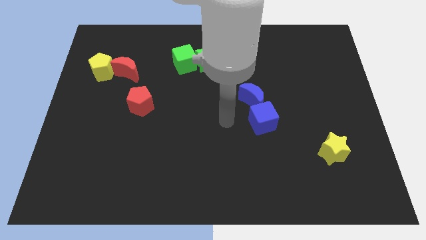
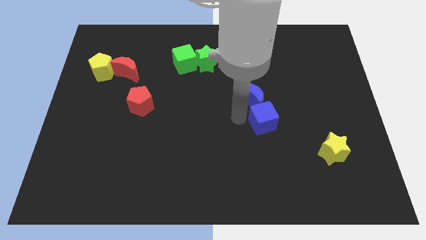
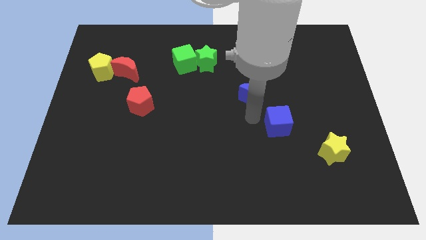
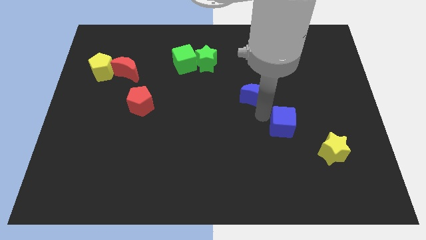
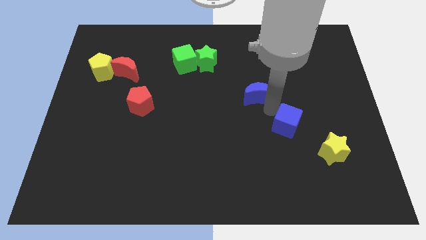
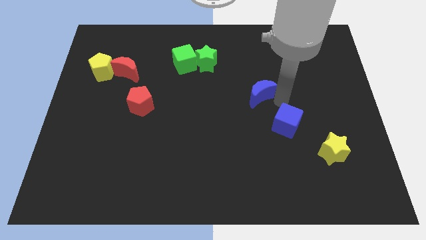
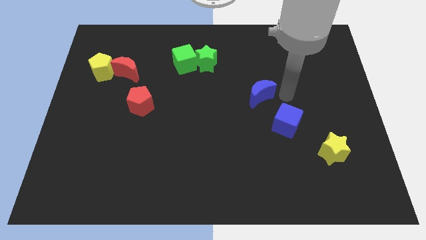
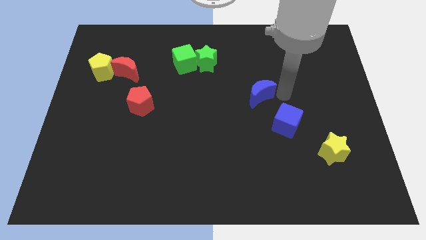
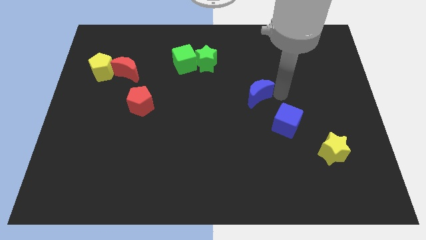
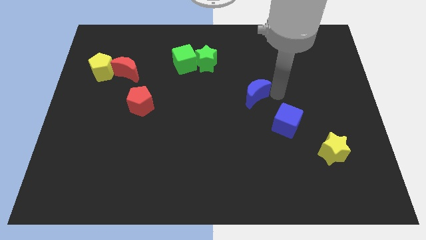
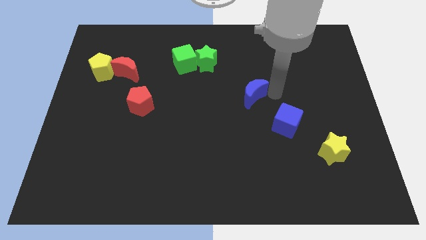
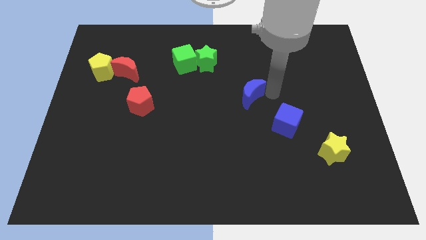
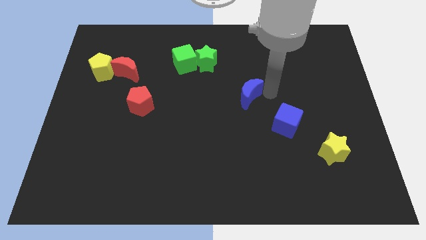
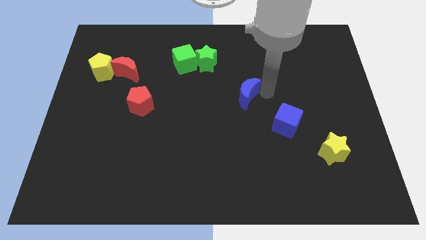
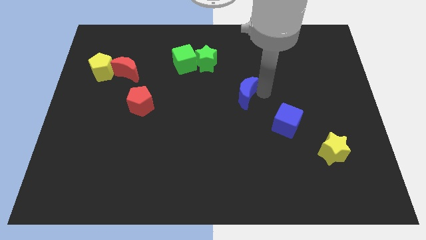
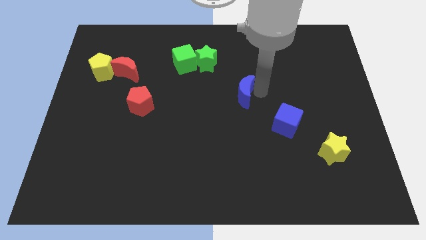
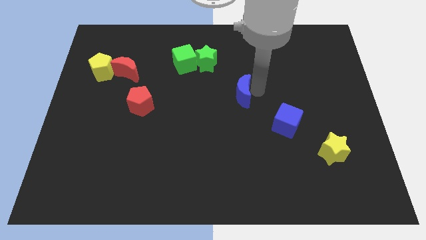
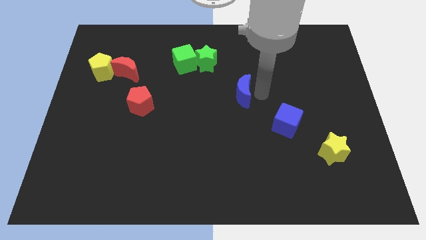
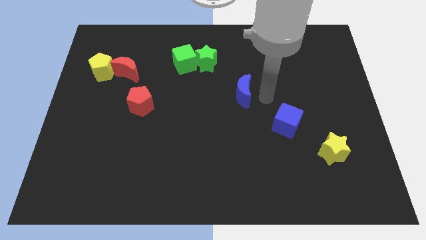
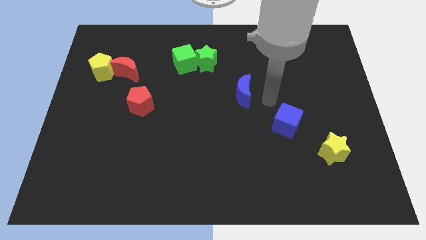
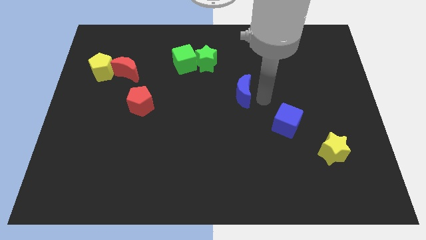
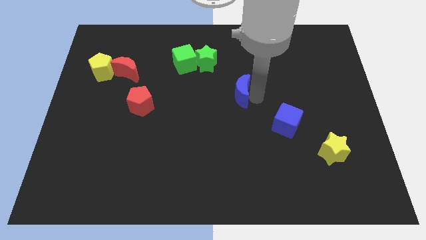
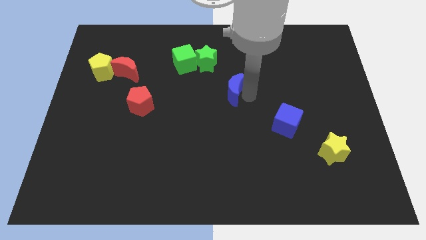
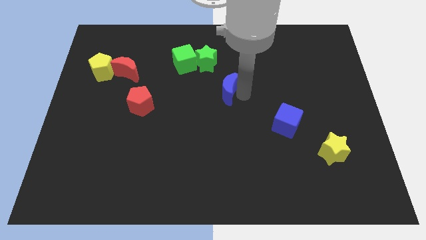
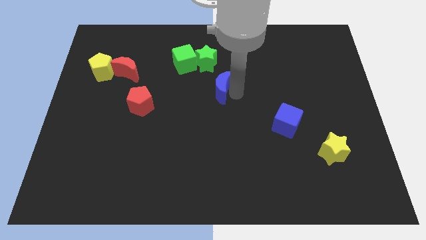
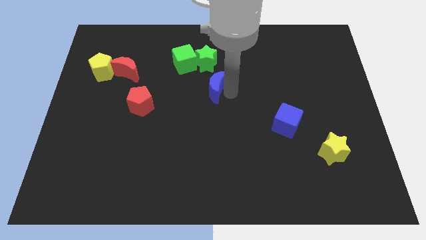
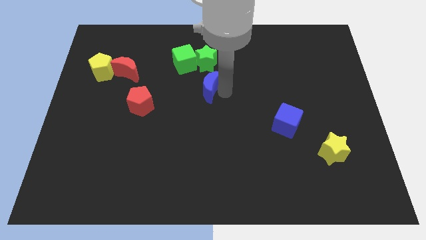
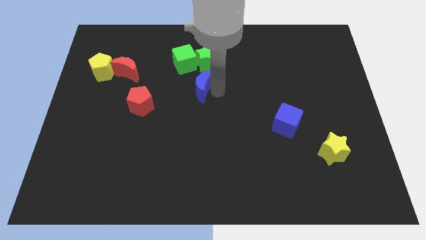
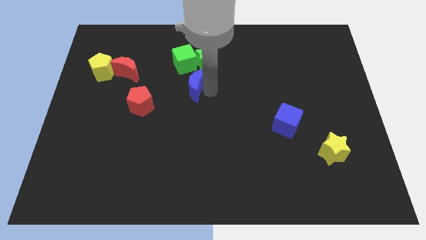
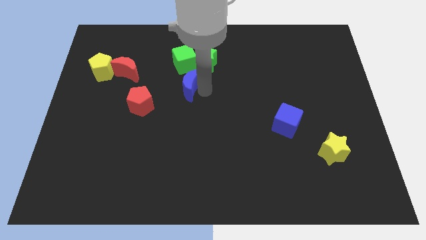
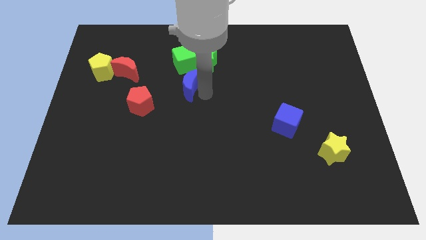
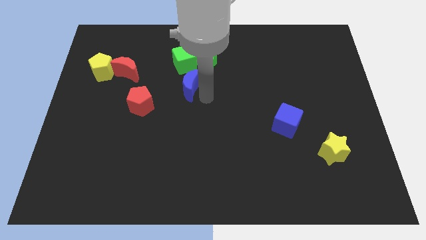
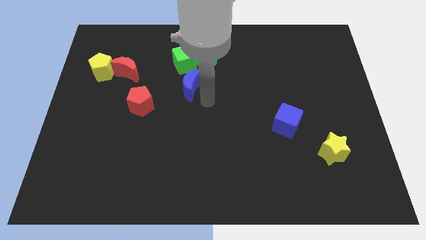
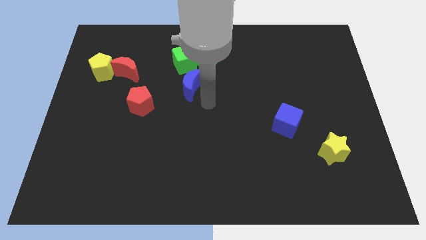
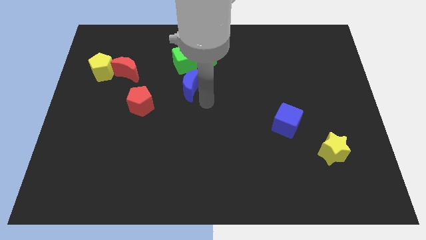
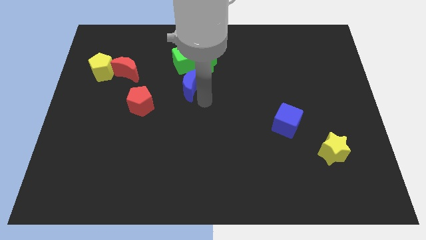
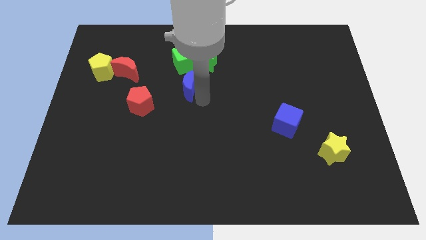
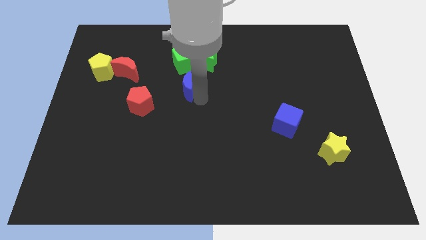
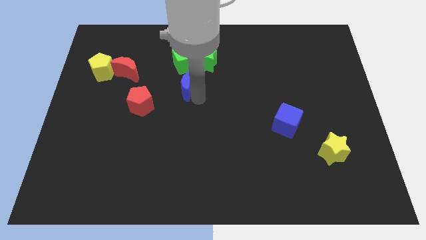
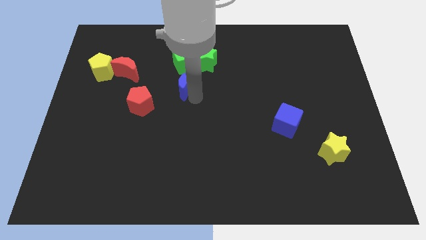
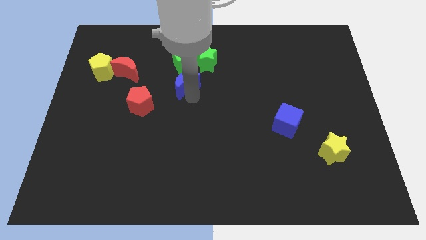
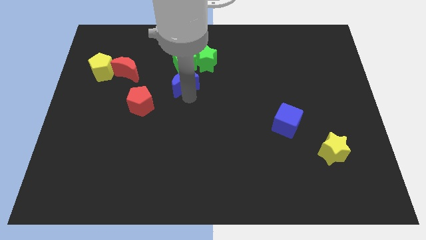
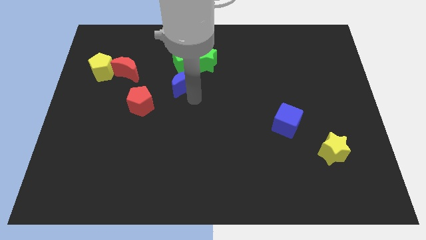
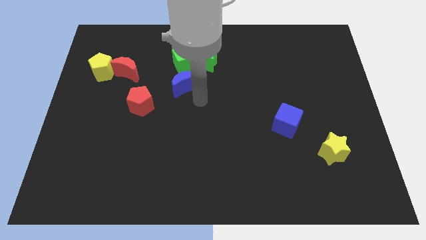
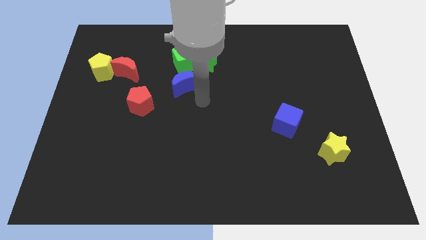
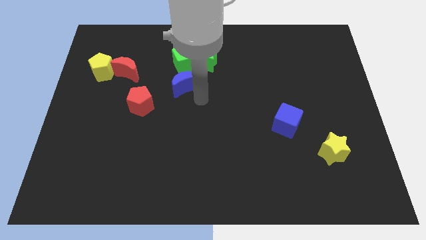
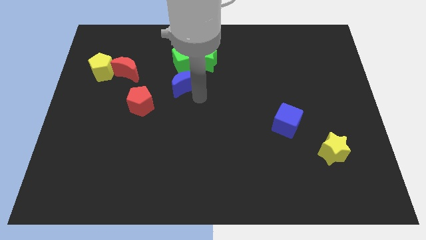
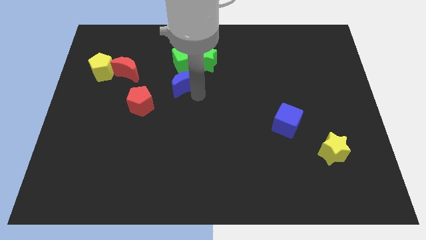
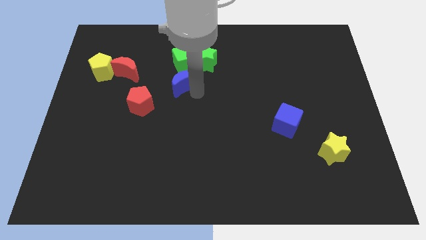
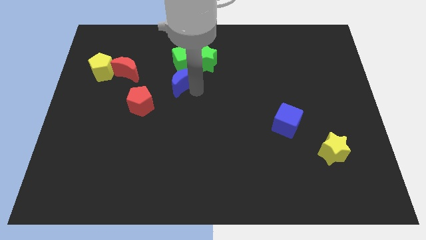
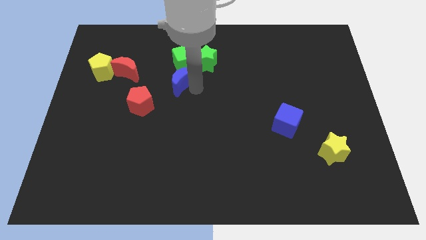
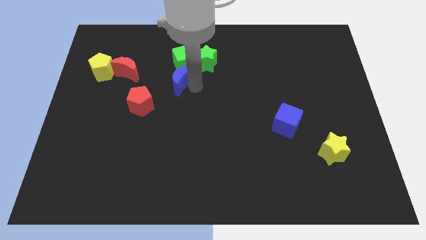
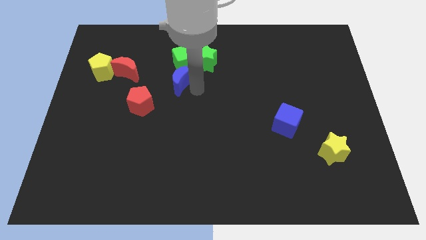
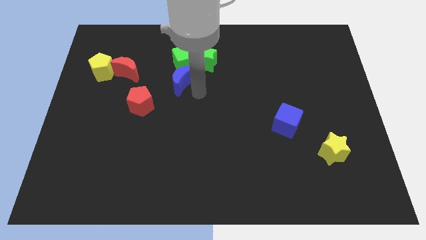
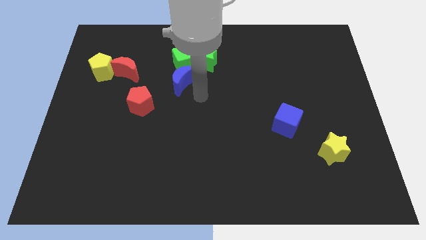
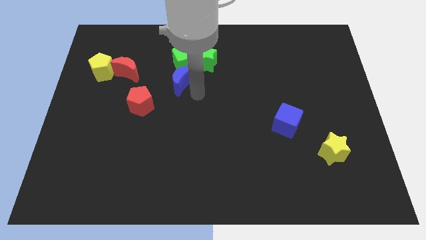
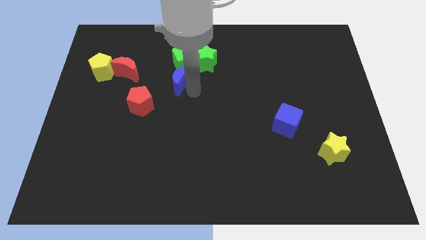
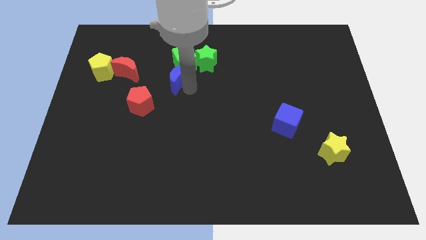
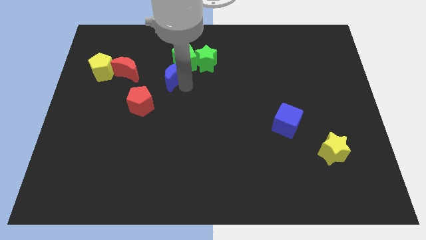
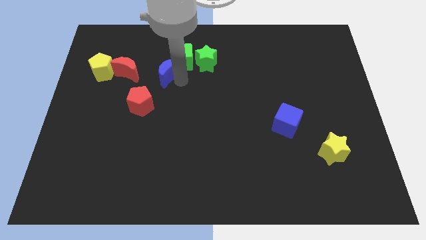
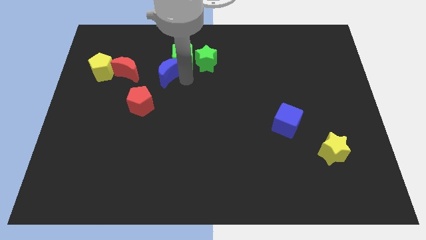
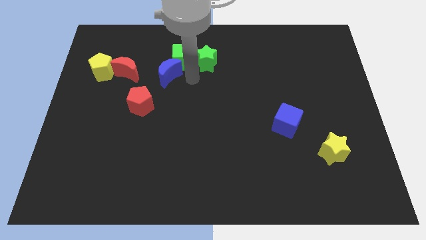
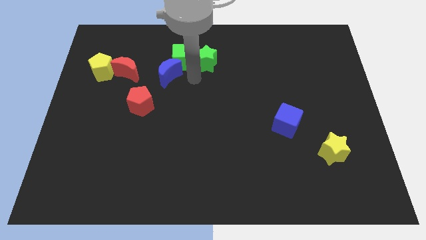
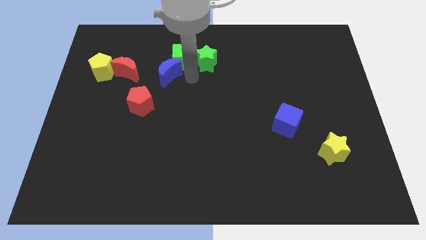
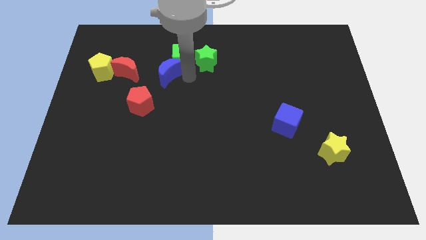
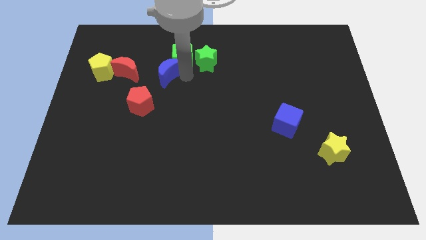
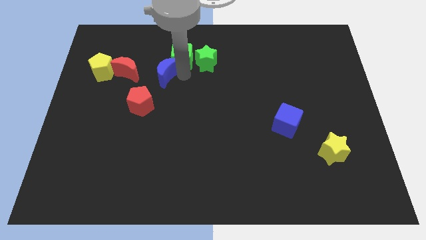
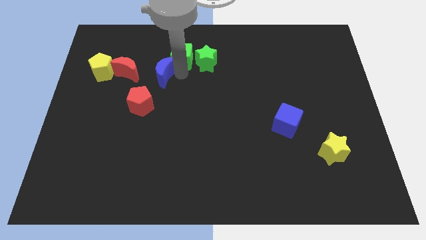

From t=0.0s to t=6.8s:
slide the blue moon to the top of the red pentagon
